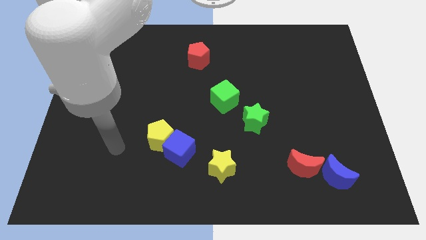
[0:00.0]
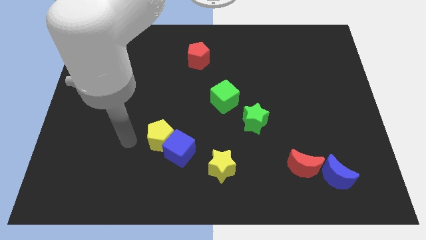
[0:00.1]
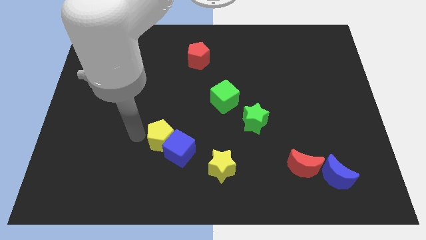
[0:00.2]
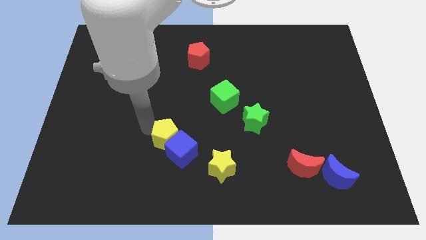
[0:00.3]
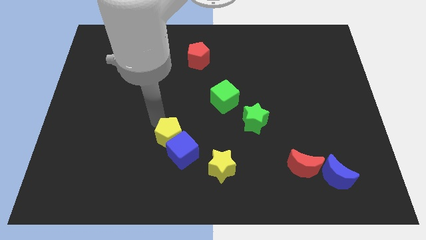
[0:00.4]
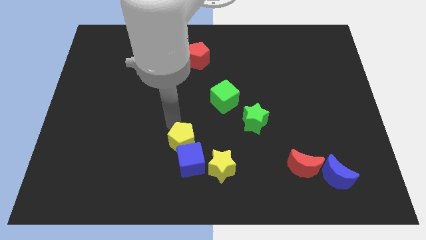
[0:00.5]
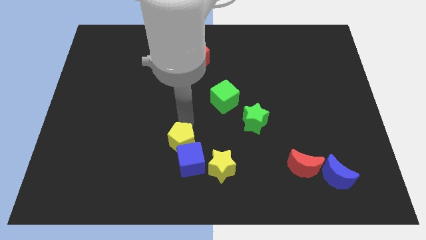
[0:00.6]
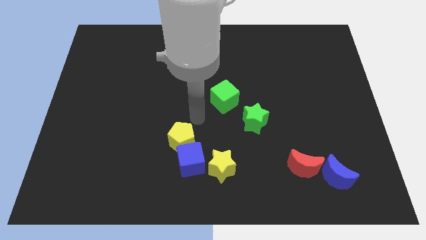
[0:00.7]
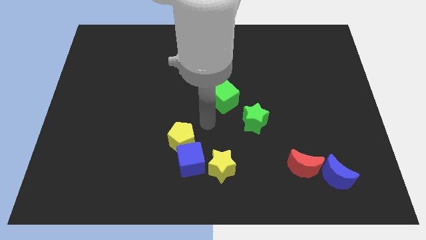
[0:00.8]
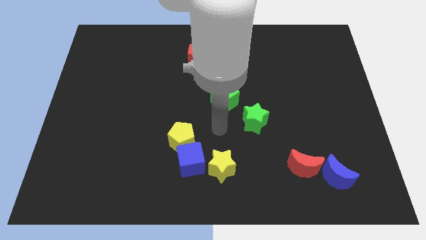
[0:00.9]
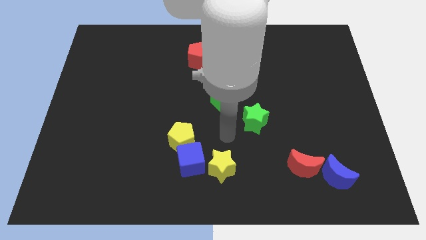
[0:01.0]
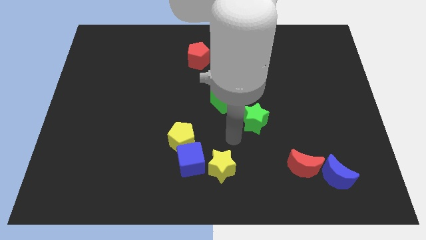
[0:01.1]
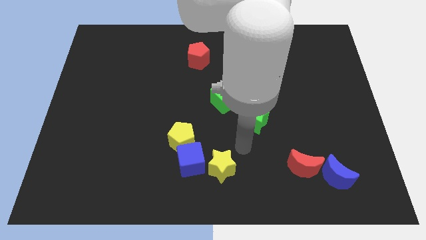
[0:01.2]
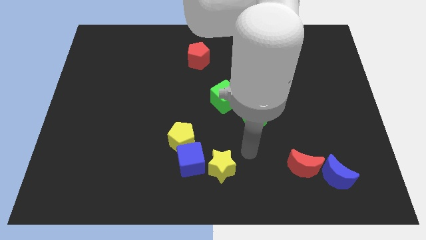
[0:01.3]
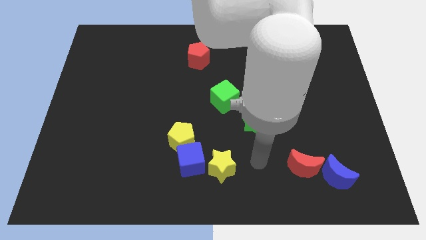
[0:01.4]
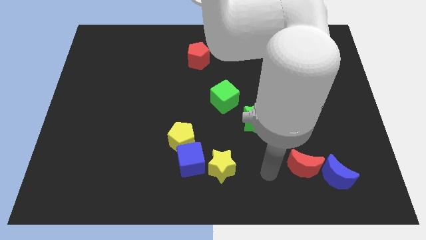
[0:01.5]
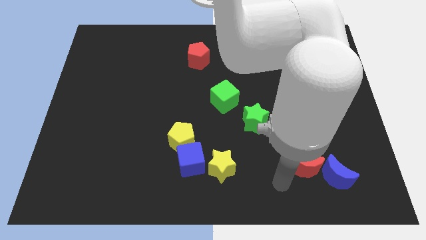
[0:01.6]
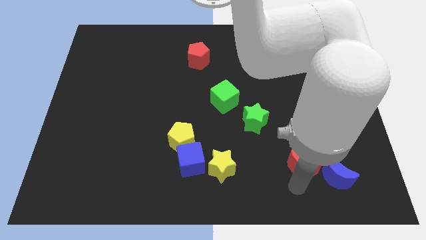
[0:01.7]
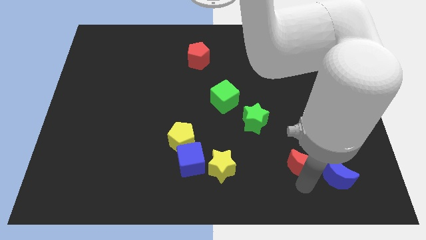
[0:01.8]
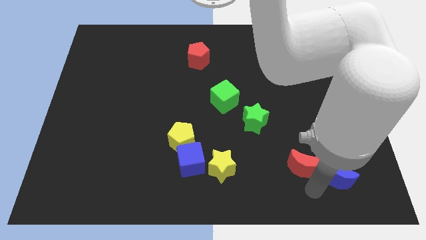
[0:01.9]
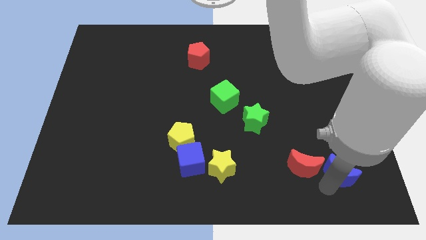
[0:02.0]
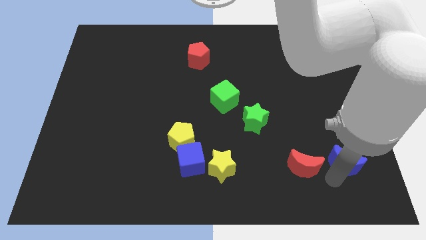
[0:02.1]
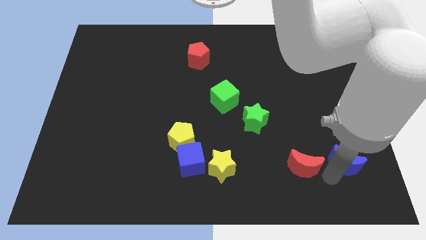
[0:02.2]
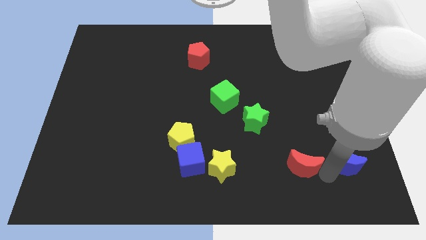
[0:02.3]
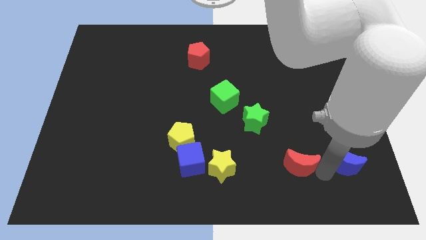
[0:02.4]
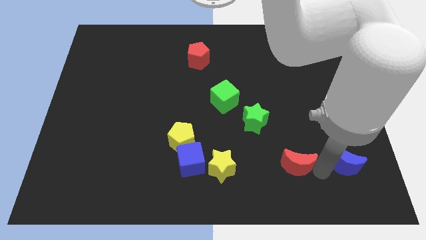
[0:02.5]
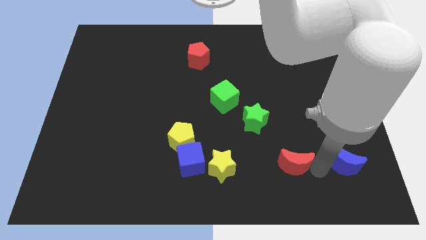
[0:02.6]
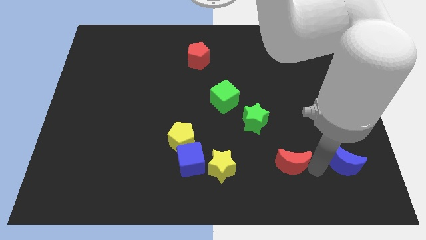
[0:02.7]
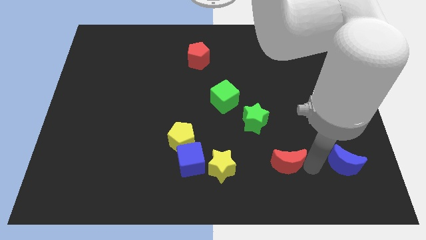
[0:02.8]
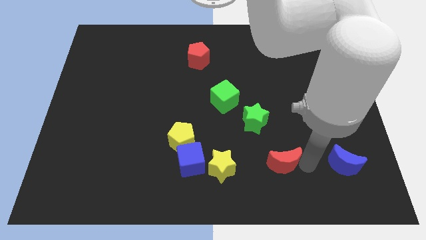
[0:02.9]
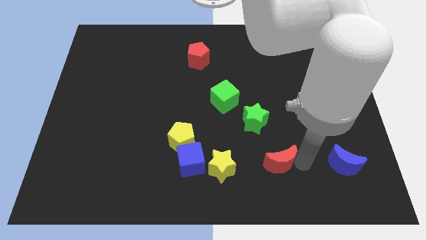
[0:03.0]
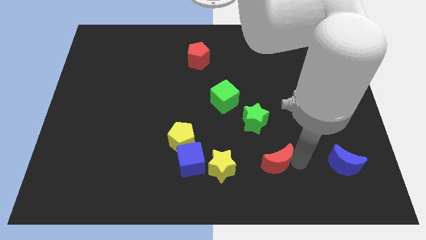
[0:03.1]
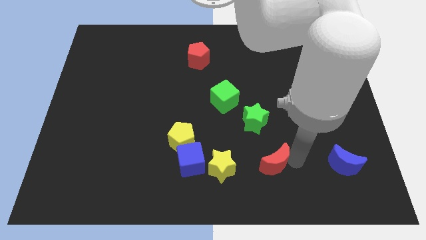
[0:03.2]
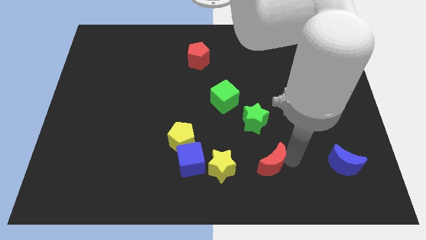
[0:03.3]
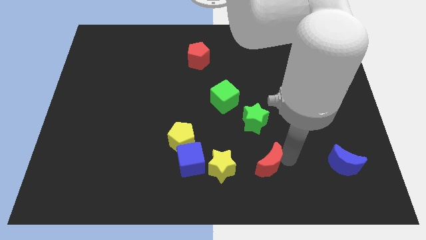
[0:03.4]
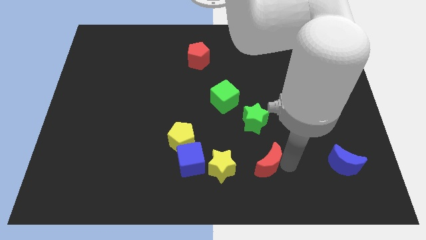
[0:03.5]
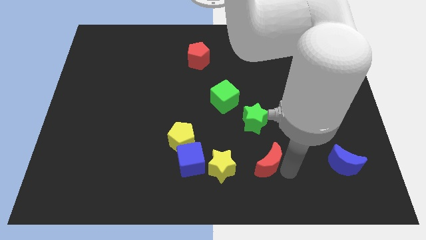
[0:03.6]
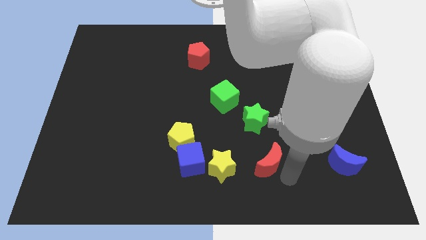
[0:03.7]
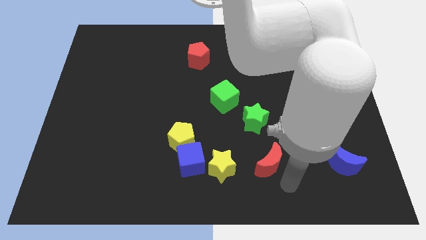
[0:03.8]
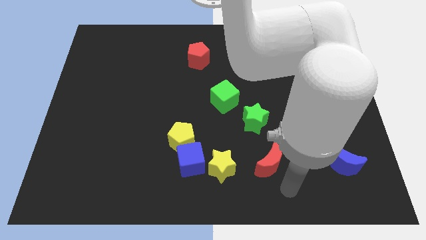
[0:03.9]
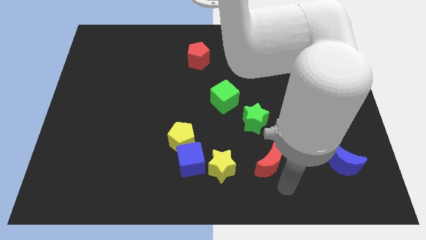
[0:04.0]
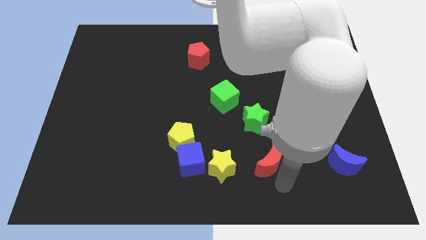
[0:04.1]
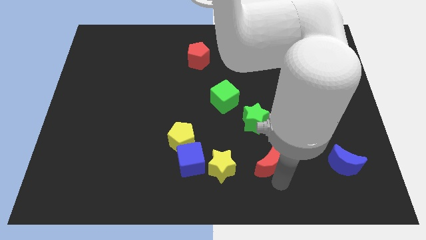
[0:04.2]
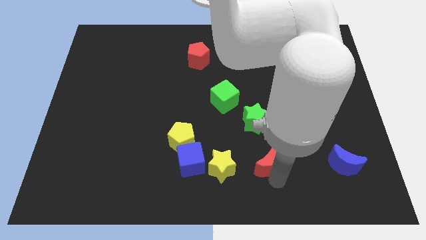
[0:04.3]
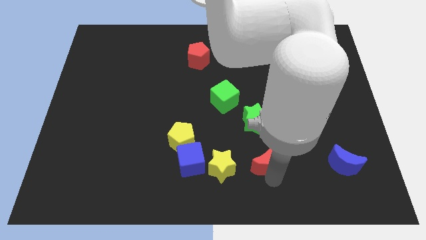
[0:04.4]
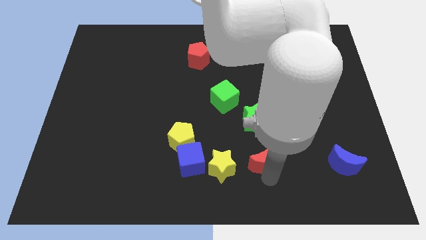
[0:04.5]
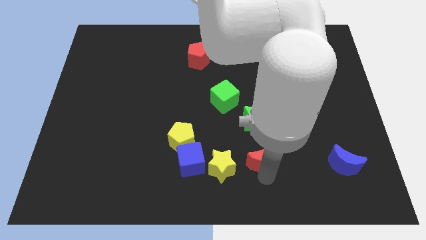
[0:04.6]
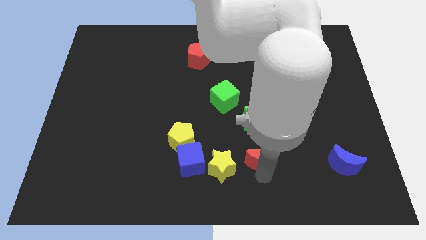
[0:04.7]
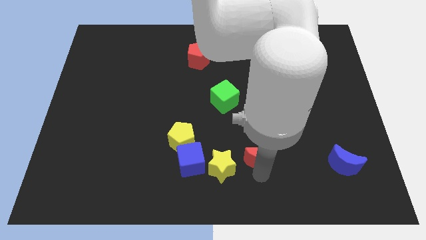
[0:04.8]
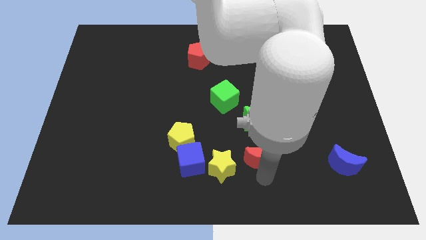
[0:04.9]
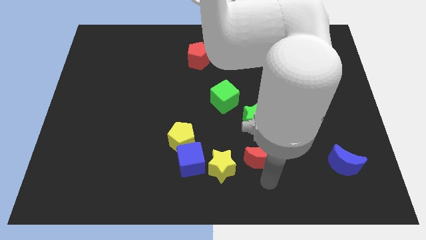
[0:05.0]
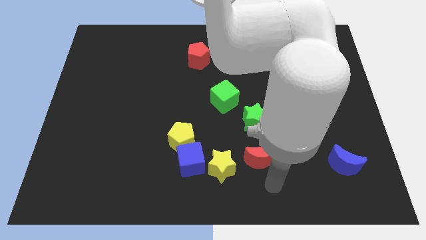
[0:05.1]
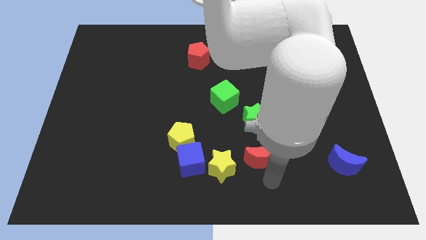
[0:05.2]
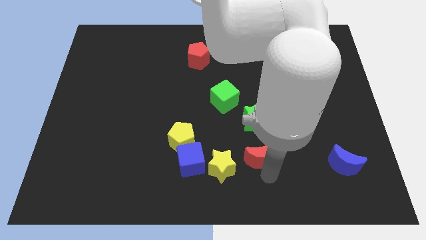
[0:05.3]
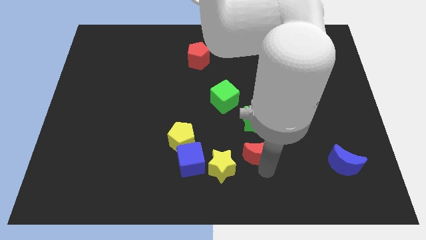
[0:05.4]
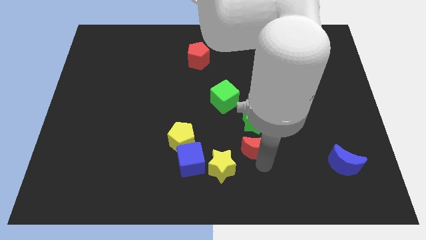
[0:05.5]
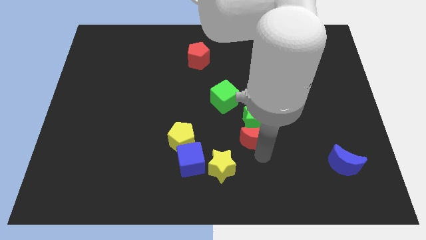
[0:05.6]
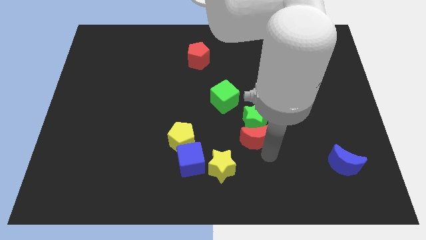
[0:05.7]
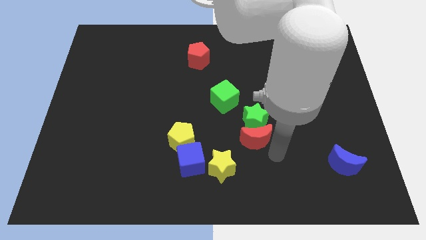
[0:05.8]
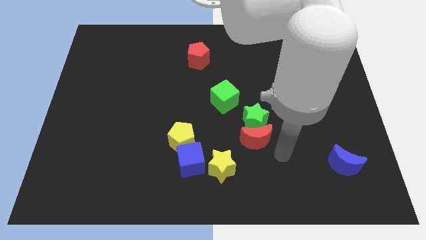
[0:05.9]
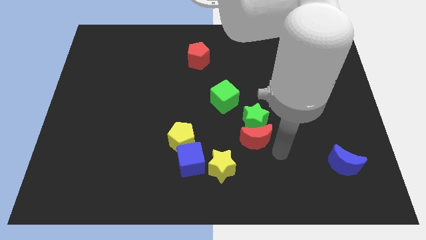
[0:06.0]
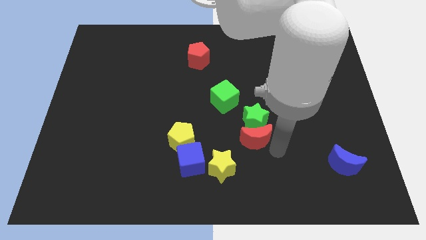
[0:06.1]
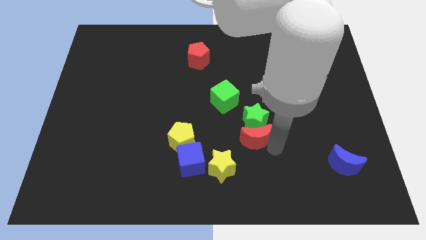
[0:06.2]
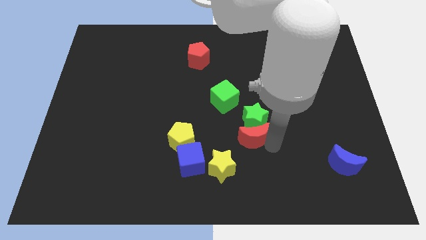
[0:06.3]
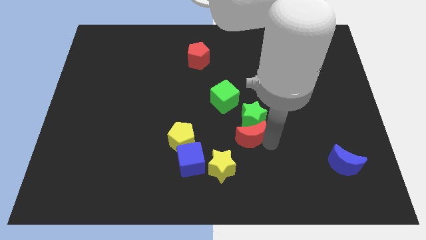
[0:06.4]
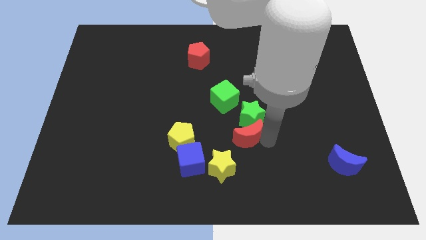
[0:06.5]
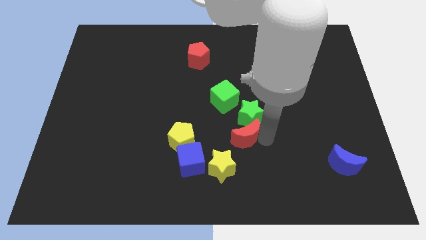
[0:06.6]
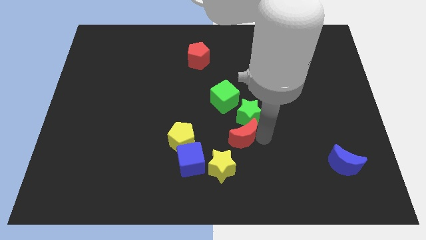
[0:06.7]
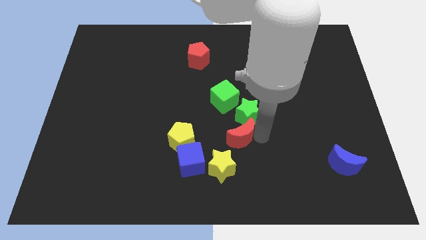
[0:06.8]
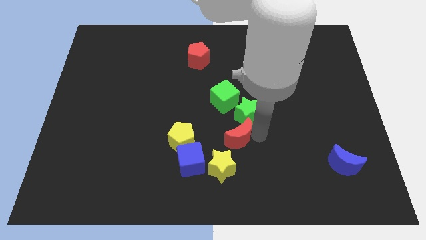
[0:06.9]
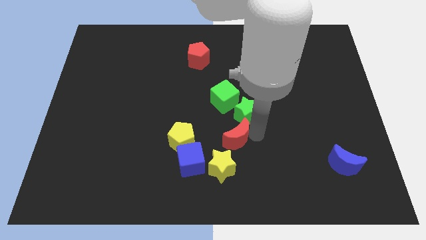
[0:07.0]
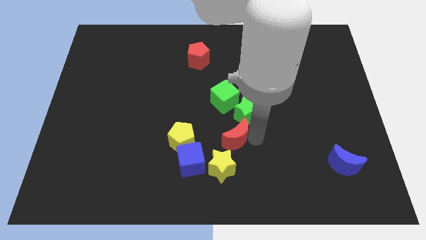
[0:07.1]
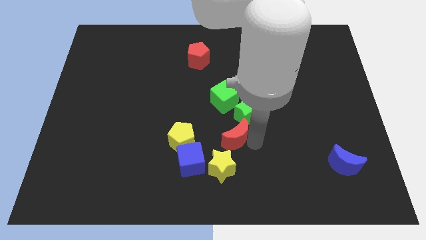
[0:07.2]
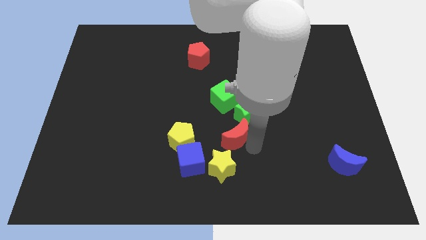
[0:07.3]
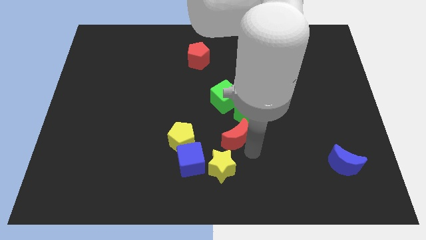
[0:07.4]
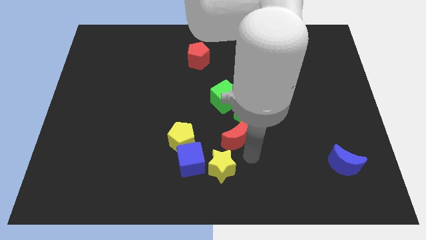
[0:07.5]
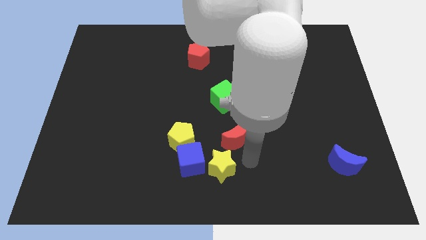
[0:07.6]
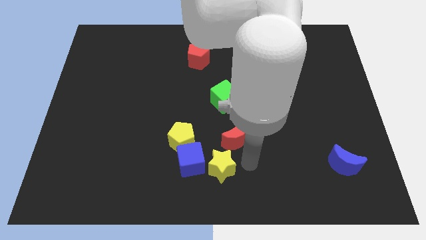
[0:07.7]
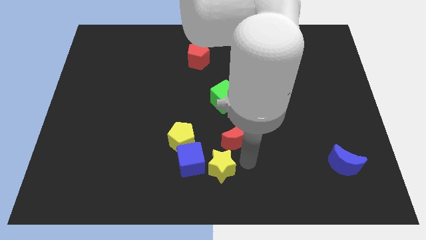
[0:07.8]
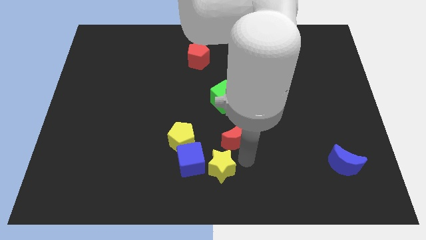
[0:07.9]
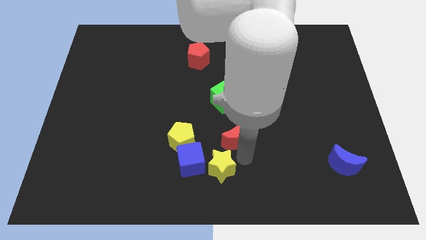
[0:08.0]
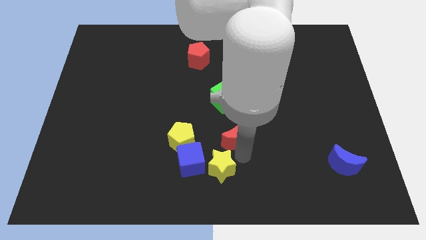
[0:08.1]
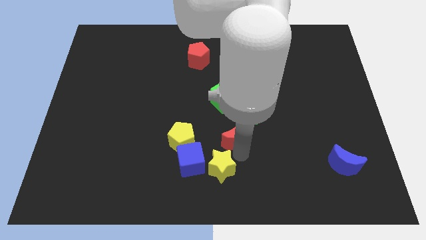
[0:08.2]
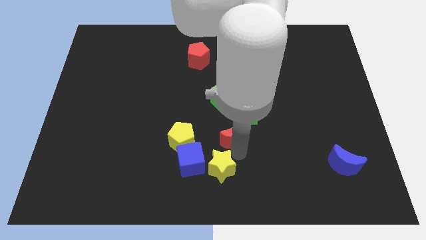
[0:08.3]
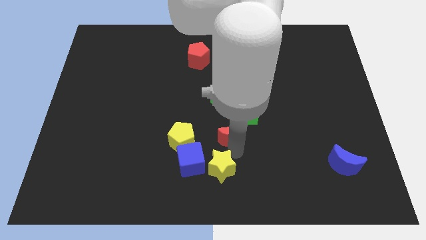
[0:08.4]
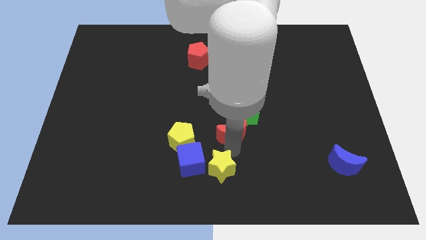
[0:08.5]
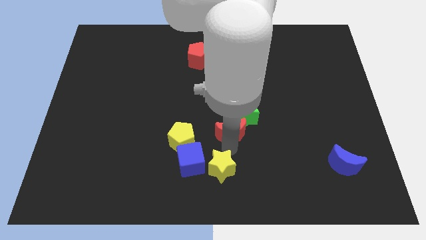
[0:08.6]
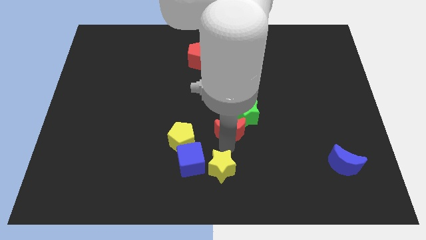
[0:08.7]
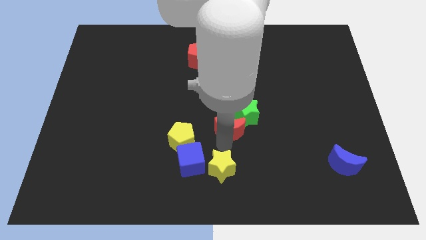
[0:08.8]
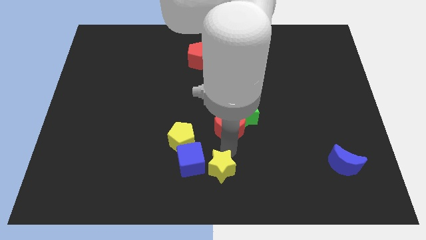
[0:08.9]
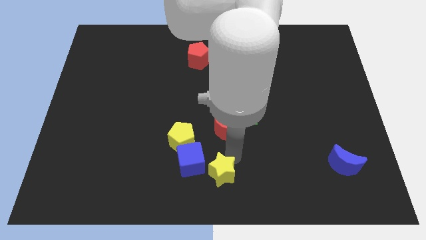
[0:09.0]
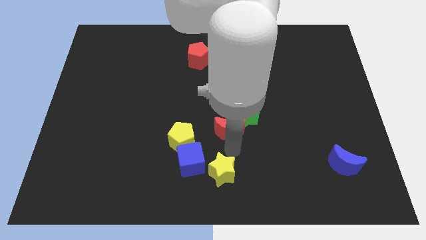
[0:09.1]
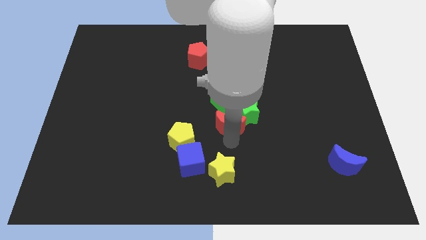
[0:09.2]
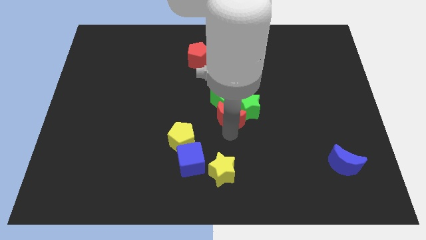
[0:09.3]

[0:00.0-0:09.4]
push the red moon towards the green cube
